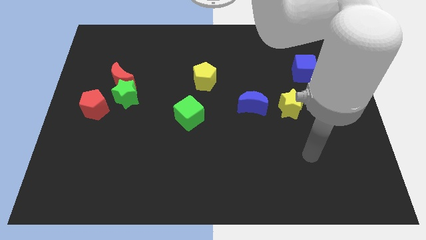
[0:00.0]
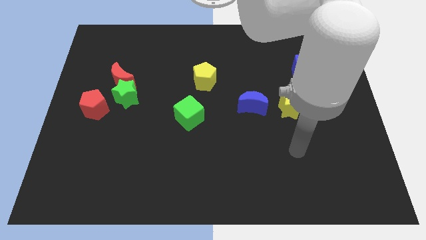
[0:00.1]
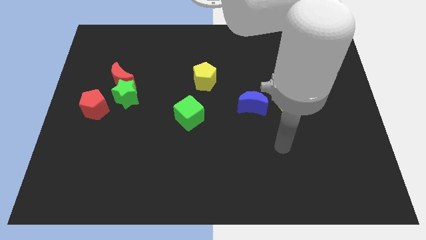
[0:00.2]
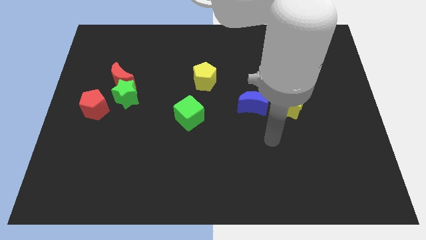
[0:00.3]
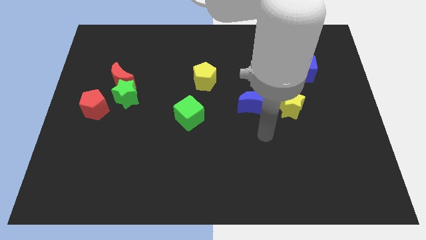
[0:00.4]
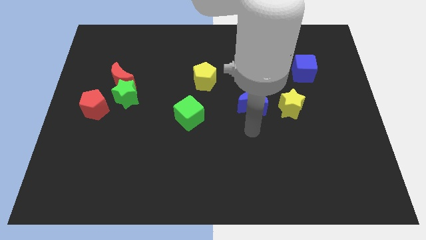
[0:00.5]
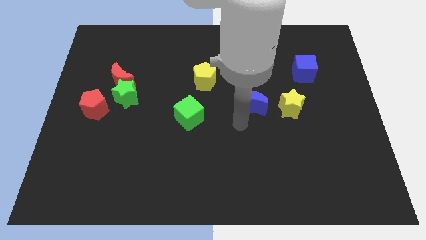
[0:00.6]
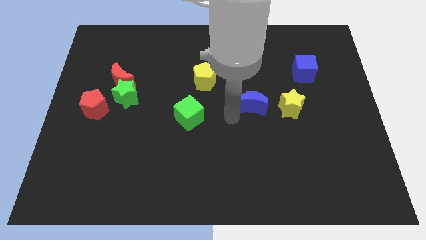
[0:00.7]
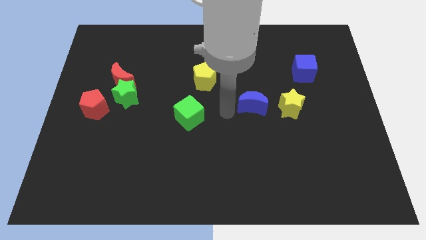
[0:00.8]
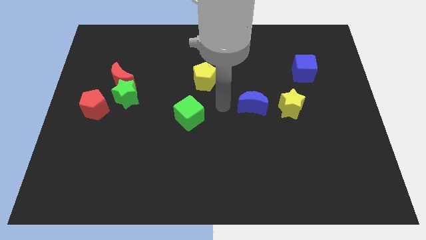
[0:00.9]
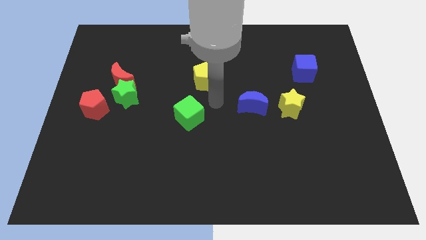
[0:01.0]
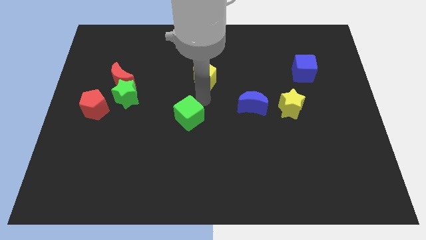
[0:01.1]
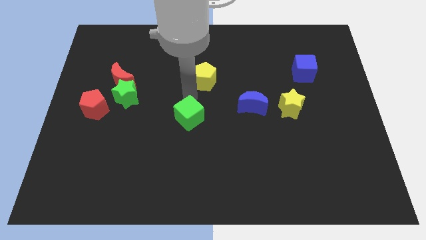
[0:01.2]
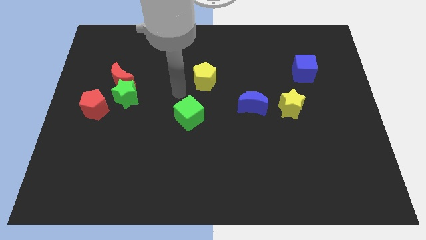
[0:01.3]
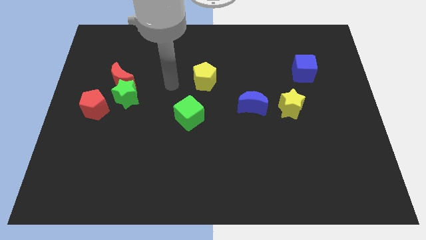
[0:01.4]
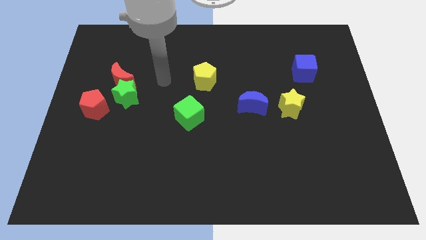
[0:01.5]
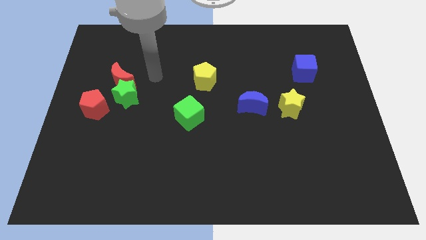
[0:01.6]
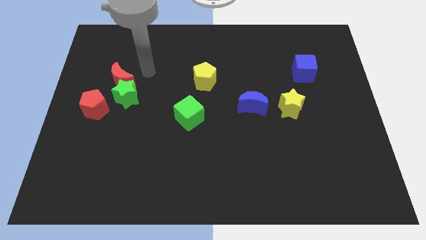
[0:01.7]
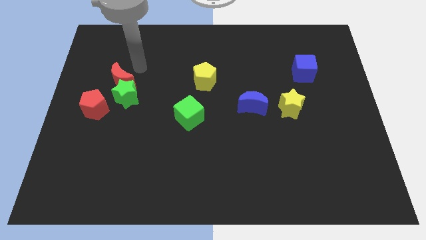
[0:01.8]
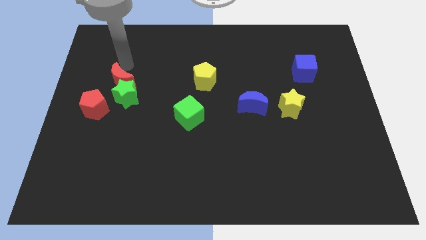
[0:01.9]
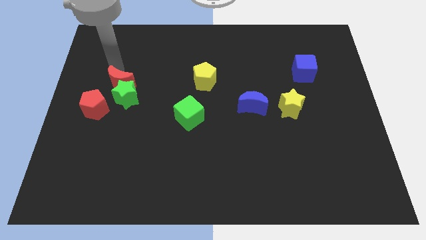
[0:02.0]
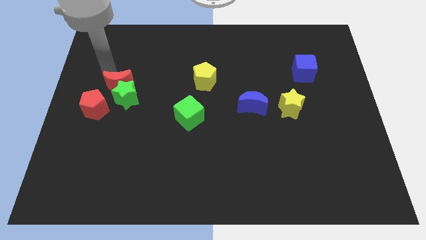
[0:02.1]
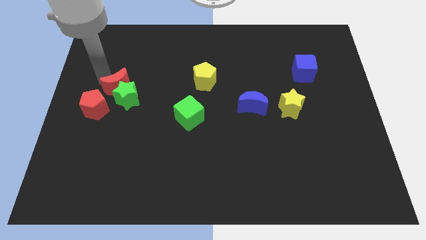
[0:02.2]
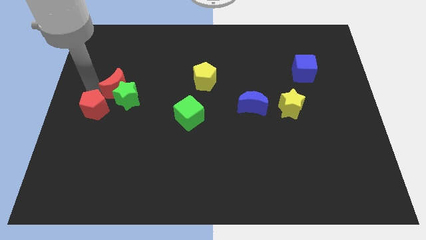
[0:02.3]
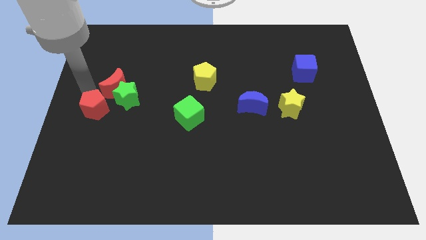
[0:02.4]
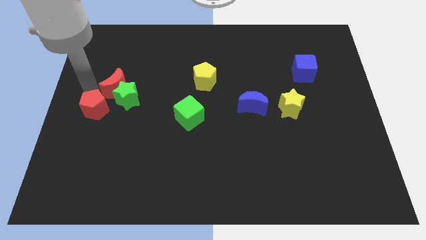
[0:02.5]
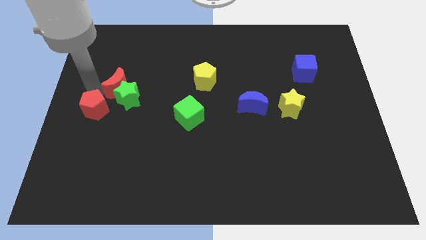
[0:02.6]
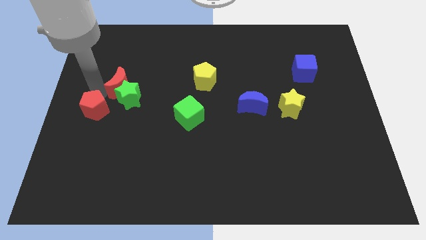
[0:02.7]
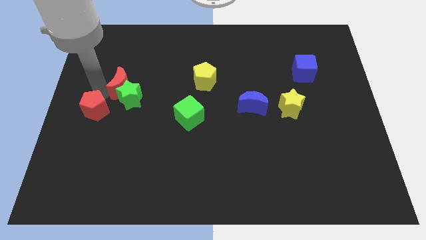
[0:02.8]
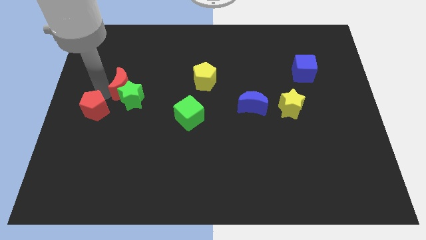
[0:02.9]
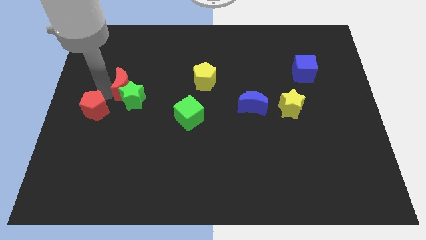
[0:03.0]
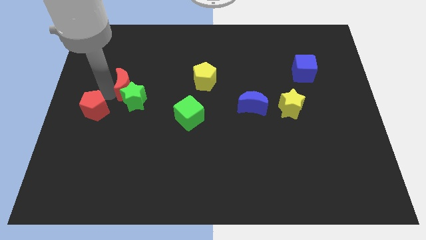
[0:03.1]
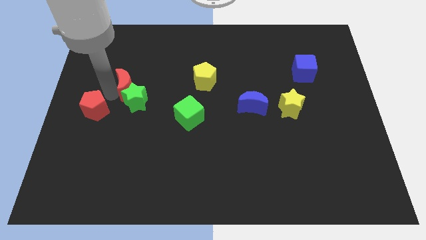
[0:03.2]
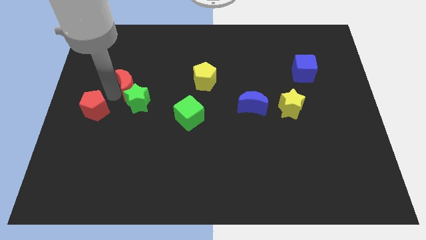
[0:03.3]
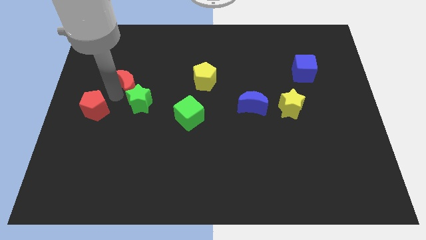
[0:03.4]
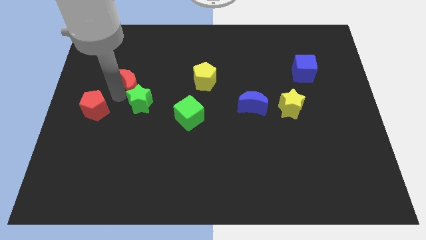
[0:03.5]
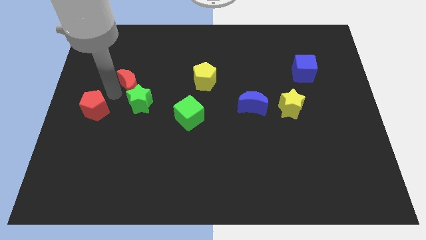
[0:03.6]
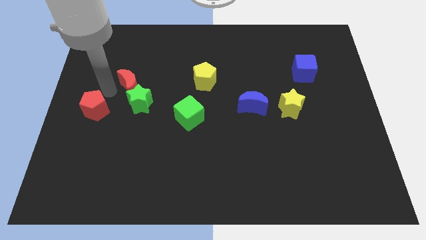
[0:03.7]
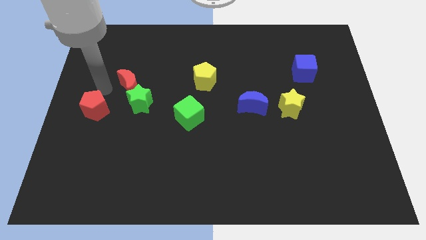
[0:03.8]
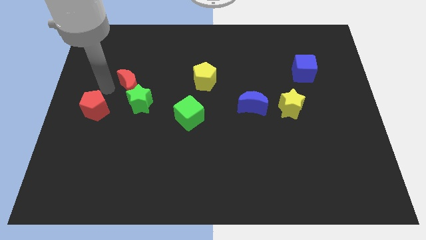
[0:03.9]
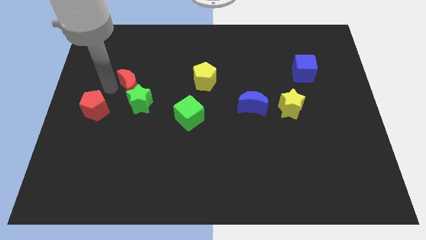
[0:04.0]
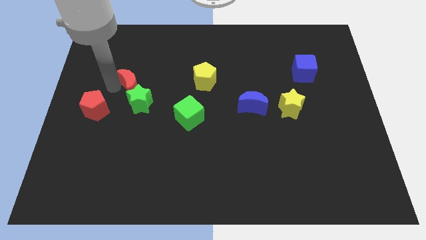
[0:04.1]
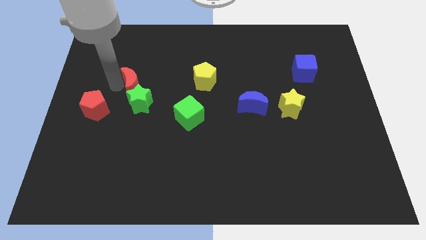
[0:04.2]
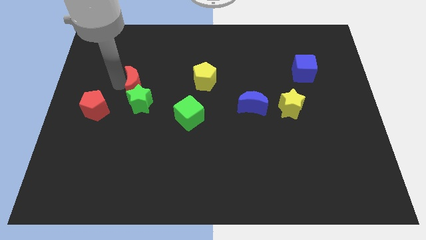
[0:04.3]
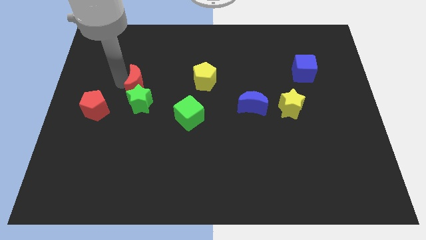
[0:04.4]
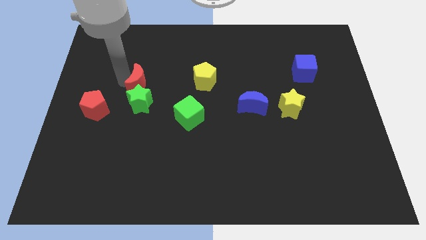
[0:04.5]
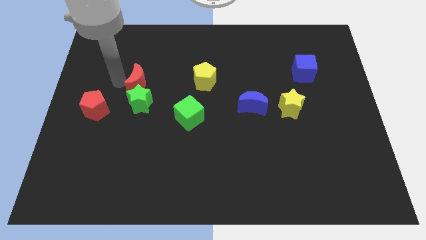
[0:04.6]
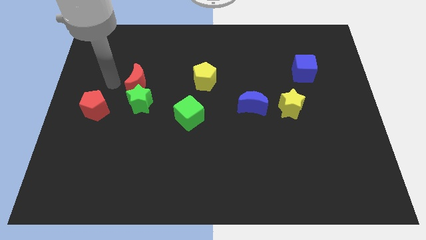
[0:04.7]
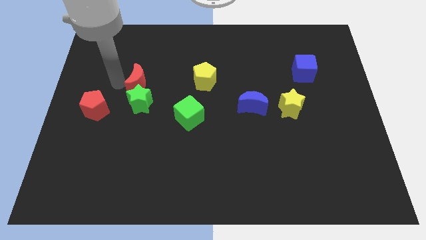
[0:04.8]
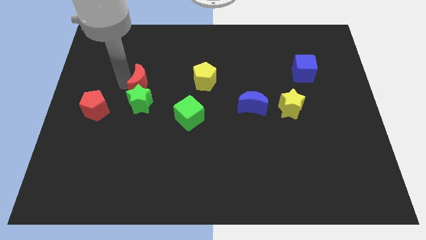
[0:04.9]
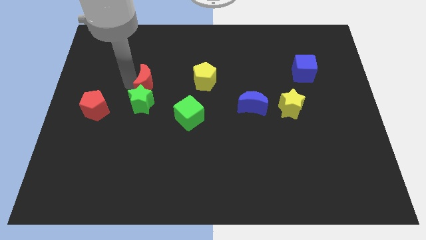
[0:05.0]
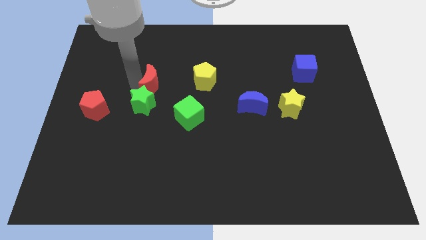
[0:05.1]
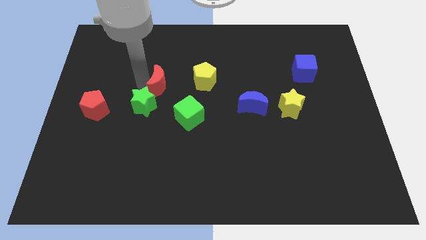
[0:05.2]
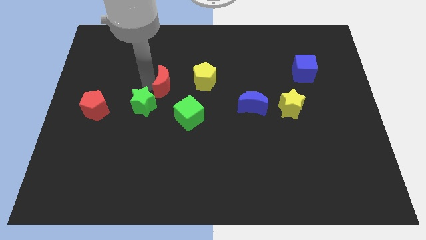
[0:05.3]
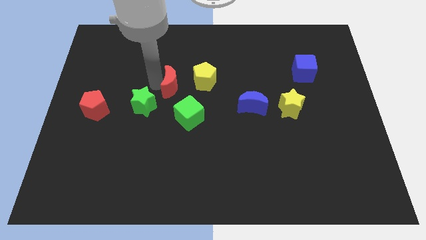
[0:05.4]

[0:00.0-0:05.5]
move the red moon to the center of the board

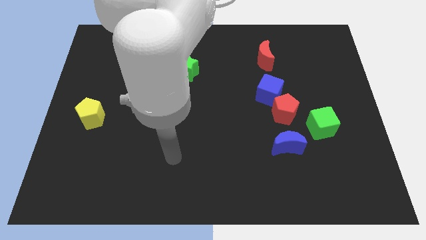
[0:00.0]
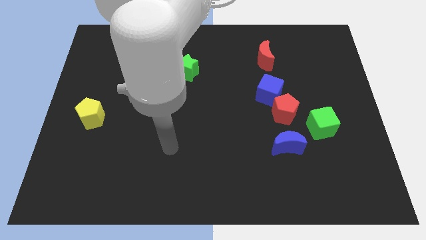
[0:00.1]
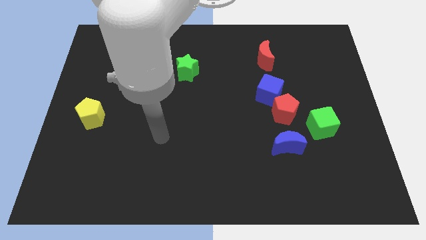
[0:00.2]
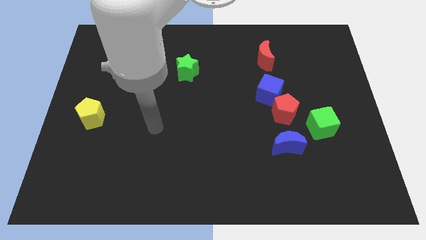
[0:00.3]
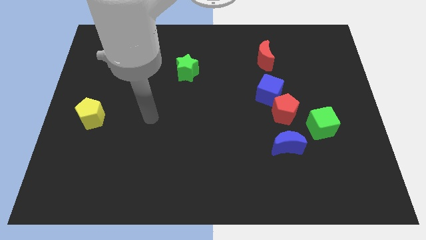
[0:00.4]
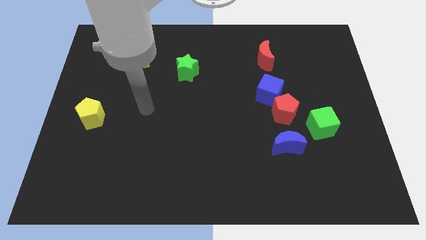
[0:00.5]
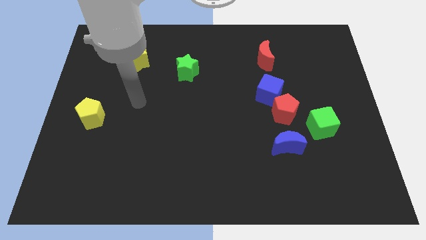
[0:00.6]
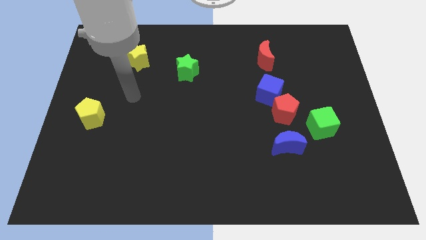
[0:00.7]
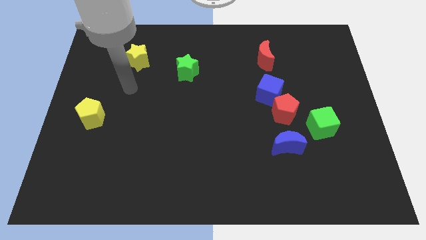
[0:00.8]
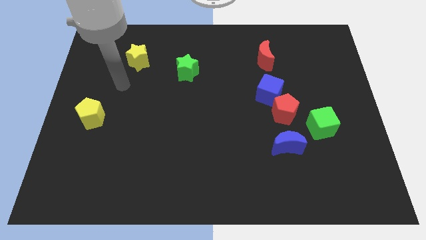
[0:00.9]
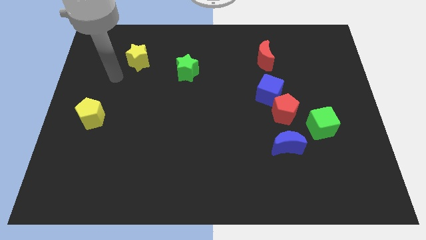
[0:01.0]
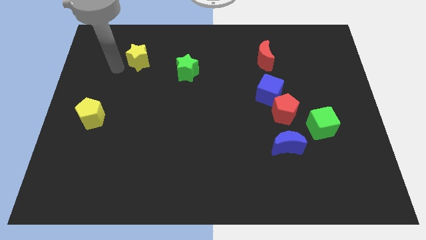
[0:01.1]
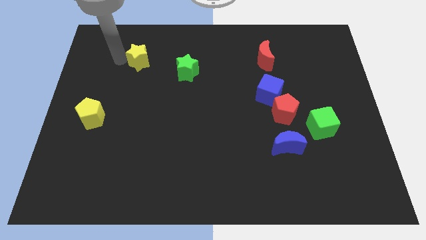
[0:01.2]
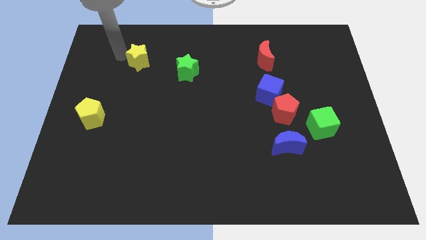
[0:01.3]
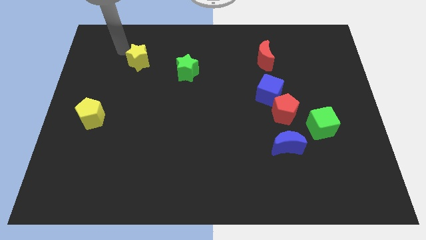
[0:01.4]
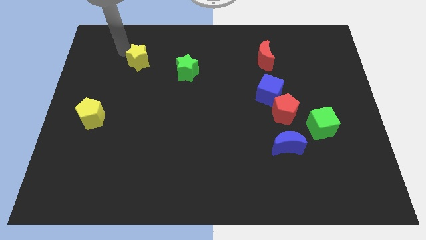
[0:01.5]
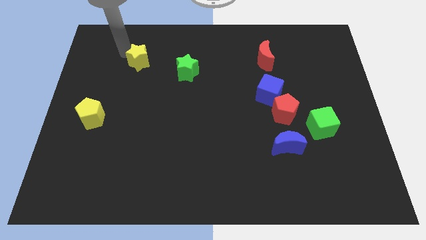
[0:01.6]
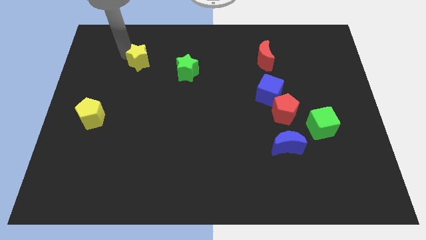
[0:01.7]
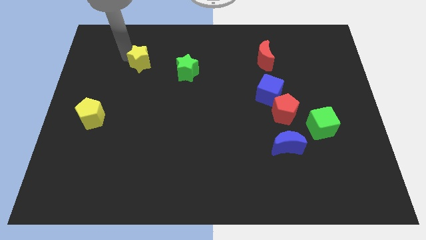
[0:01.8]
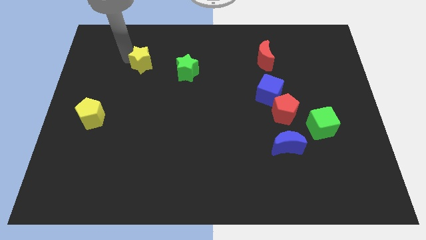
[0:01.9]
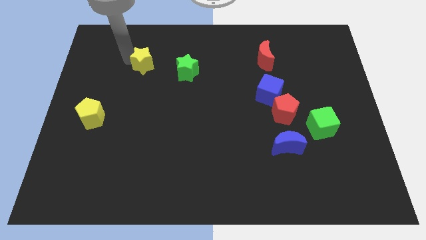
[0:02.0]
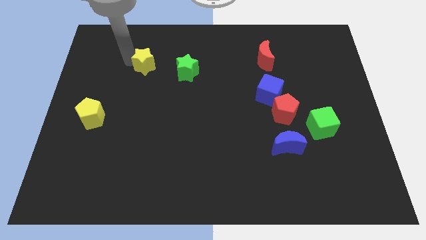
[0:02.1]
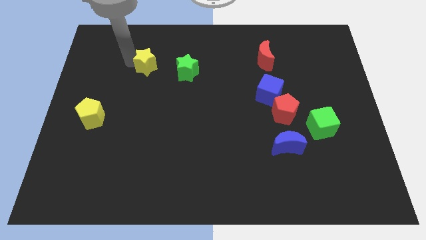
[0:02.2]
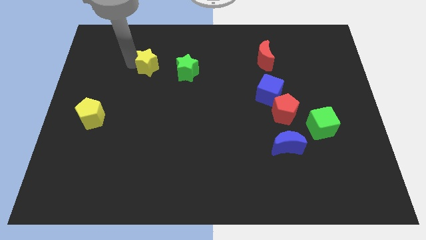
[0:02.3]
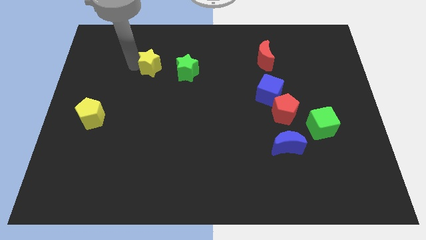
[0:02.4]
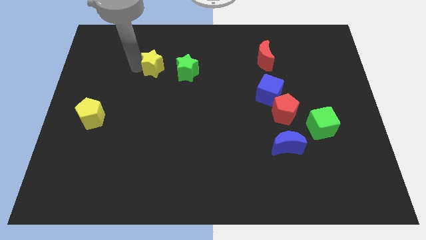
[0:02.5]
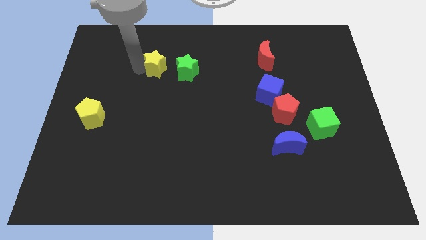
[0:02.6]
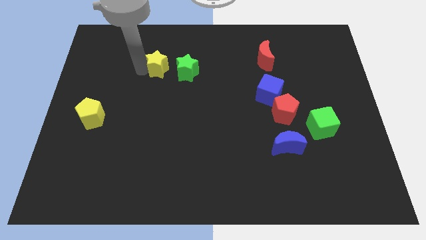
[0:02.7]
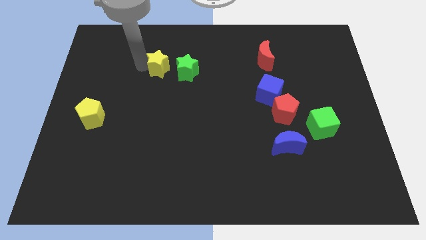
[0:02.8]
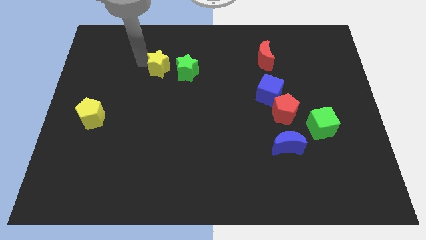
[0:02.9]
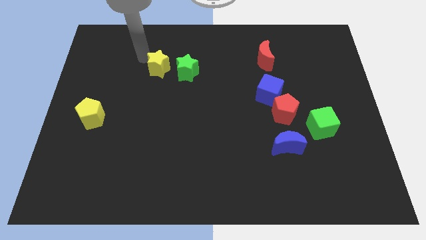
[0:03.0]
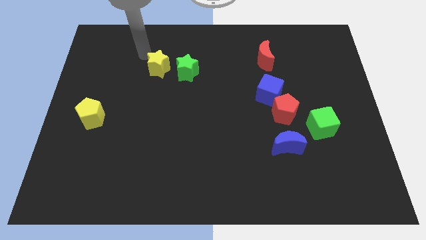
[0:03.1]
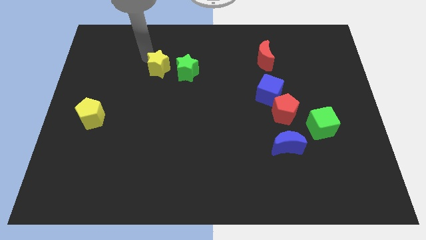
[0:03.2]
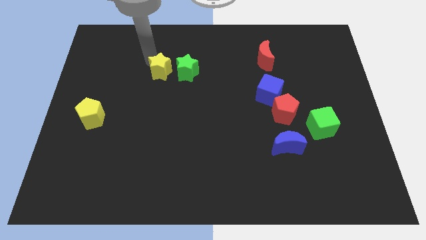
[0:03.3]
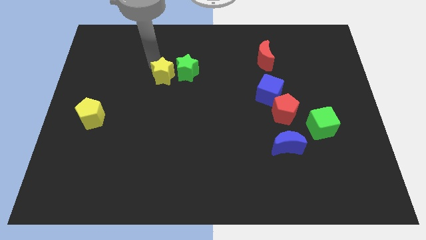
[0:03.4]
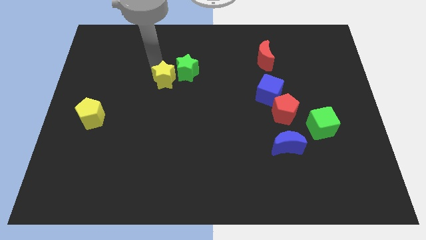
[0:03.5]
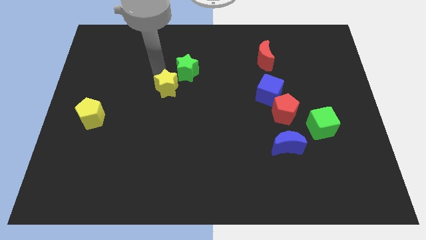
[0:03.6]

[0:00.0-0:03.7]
slide the yellow star to the center of the board
